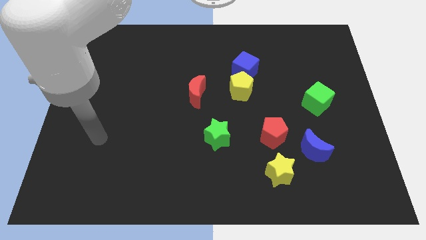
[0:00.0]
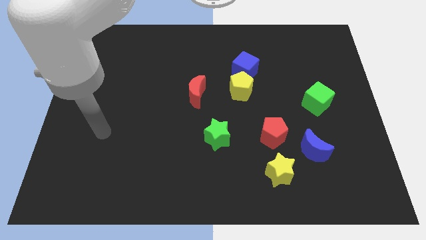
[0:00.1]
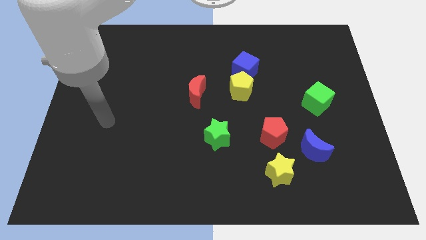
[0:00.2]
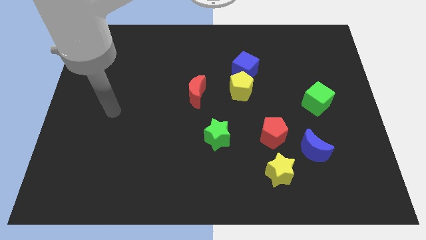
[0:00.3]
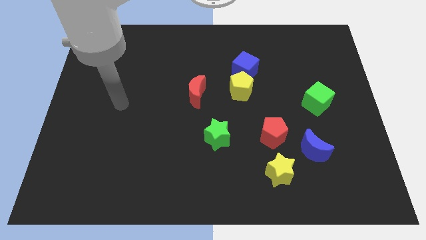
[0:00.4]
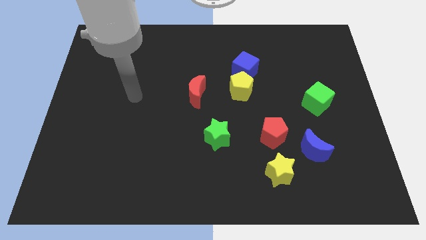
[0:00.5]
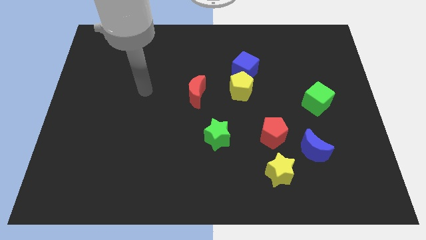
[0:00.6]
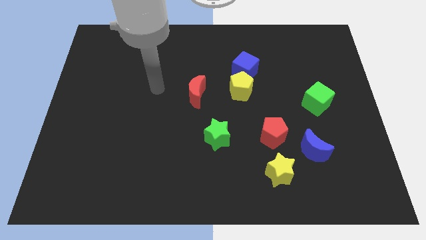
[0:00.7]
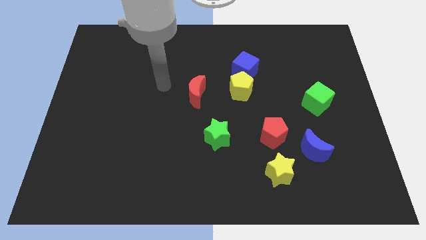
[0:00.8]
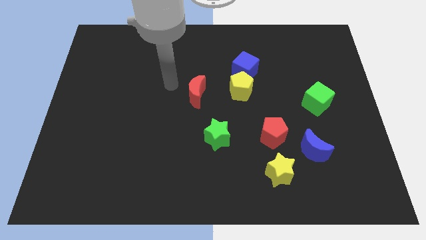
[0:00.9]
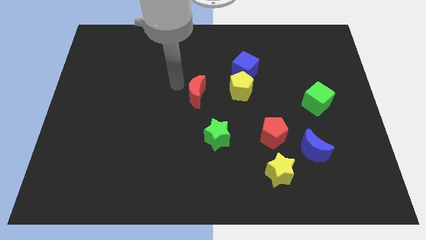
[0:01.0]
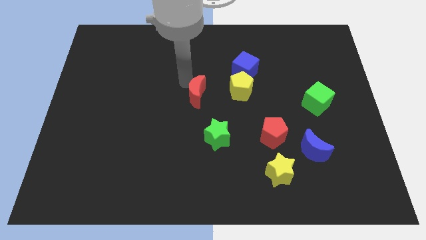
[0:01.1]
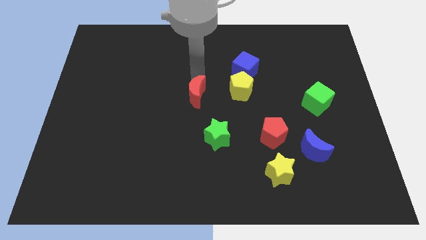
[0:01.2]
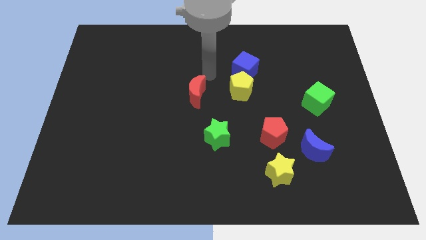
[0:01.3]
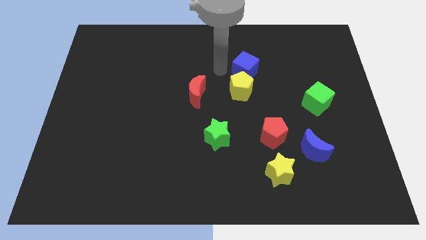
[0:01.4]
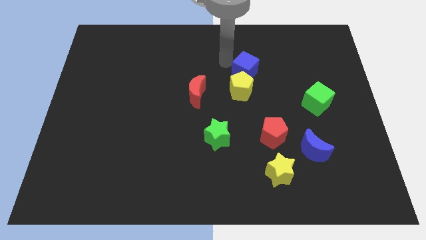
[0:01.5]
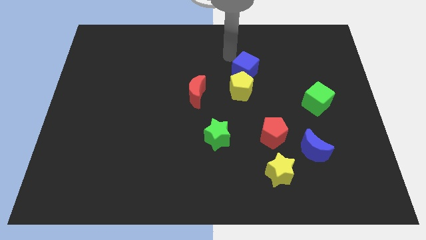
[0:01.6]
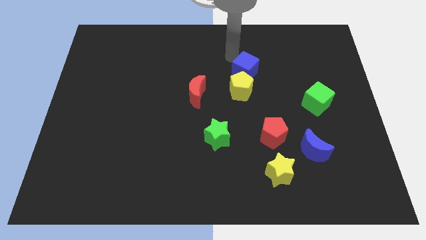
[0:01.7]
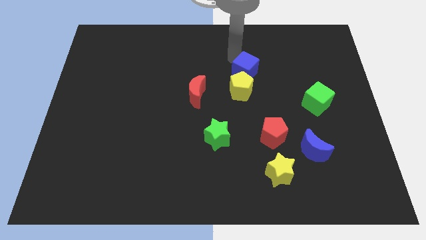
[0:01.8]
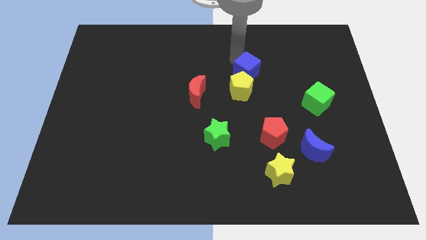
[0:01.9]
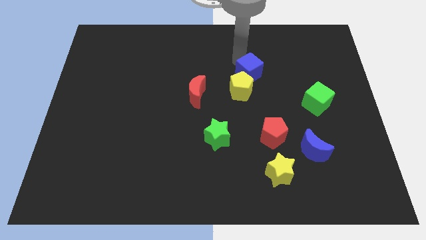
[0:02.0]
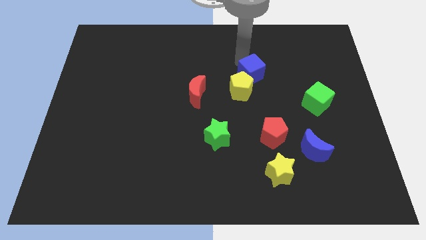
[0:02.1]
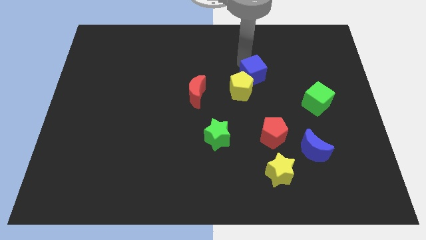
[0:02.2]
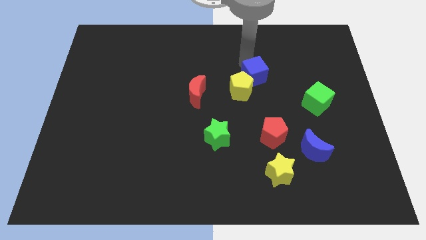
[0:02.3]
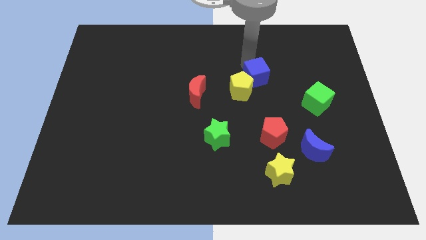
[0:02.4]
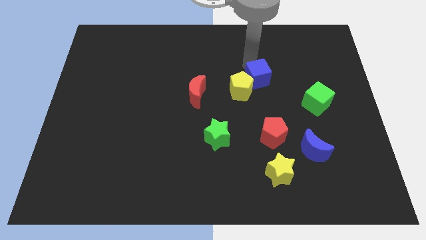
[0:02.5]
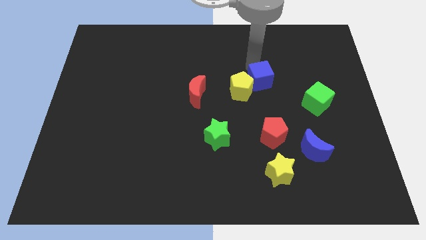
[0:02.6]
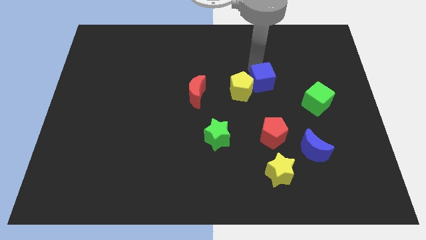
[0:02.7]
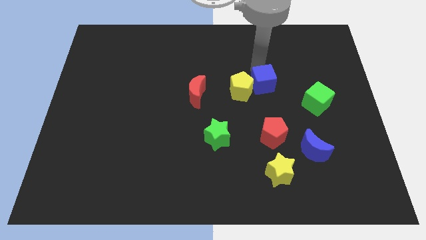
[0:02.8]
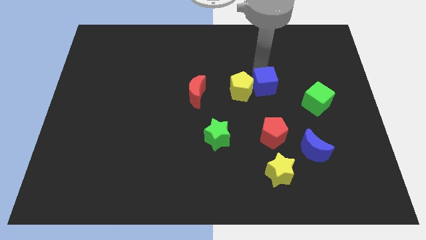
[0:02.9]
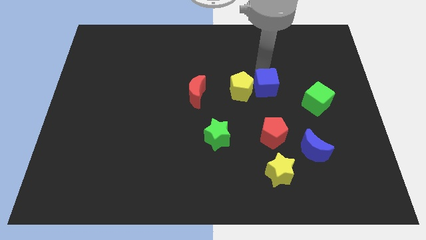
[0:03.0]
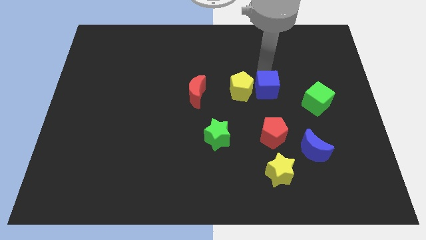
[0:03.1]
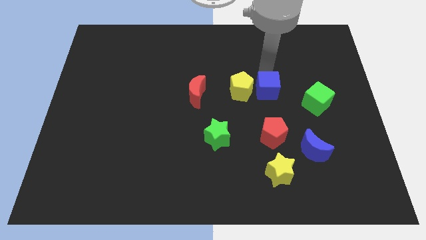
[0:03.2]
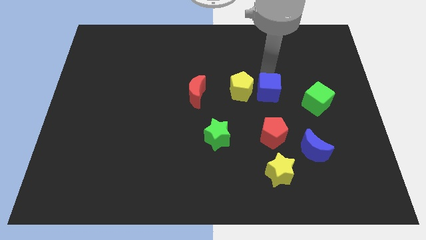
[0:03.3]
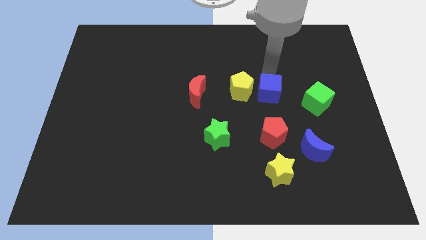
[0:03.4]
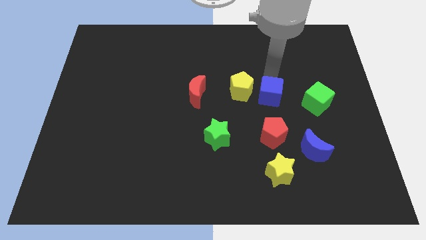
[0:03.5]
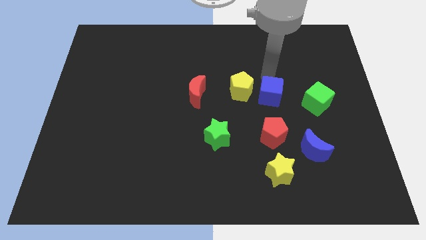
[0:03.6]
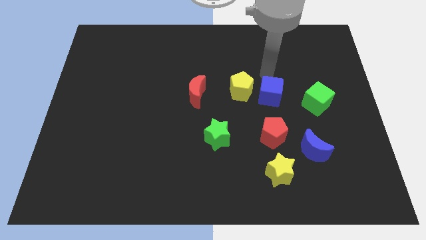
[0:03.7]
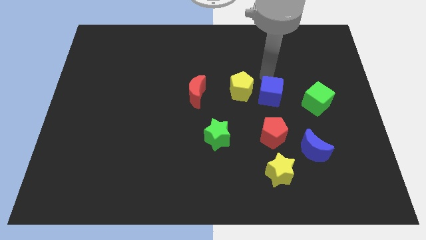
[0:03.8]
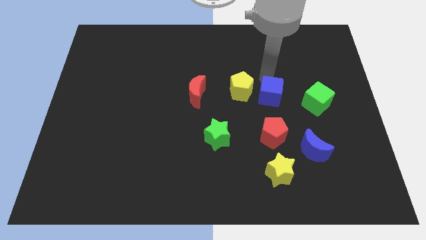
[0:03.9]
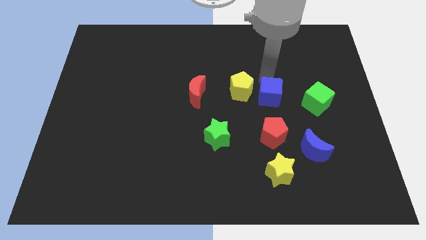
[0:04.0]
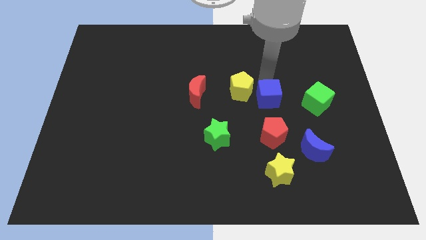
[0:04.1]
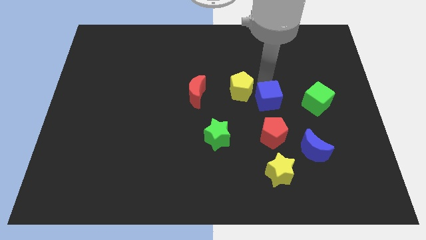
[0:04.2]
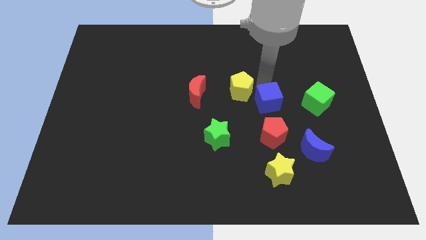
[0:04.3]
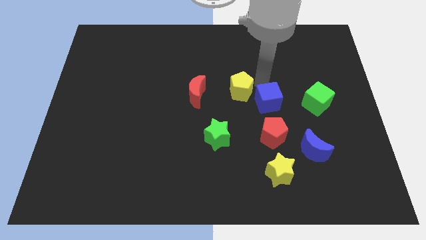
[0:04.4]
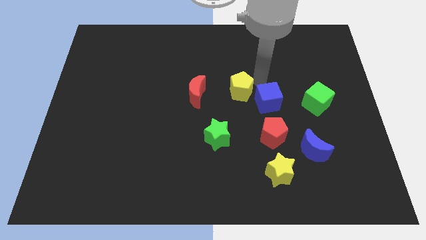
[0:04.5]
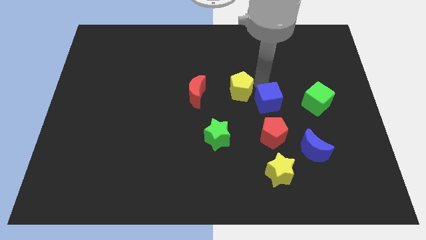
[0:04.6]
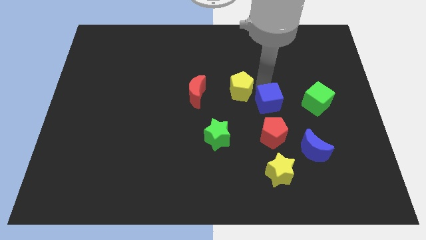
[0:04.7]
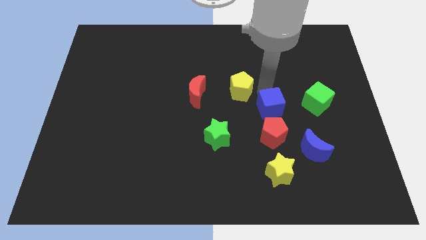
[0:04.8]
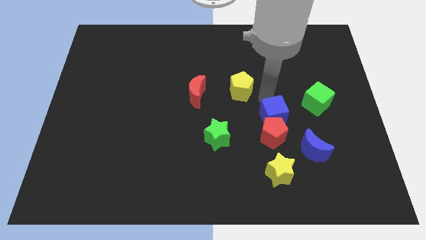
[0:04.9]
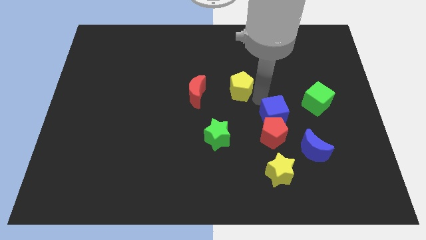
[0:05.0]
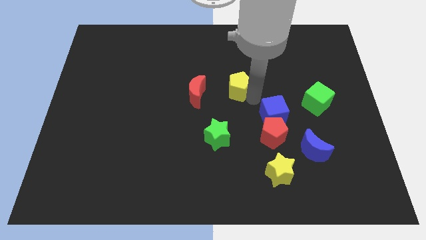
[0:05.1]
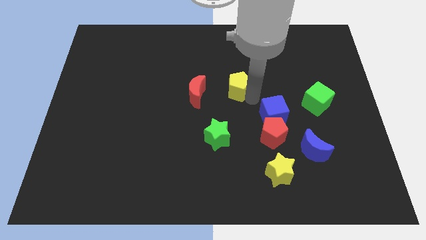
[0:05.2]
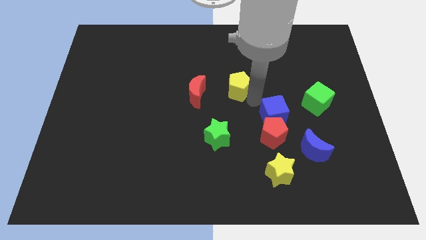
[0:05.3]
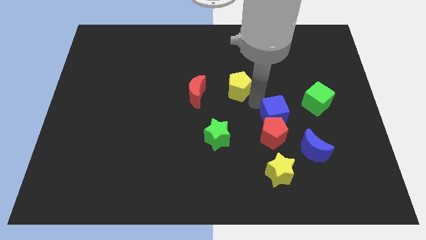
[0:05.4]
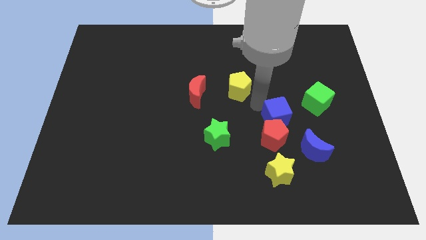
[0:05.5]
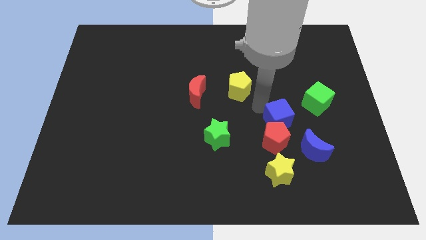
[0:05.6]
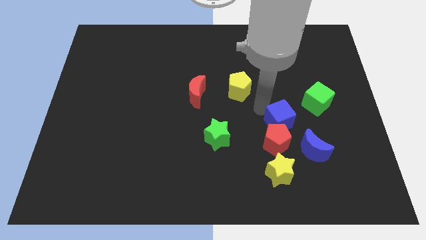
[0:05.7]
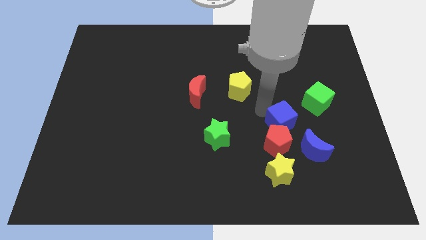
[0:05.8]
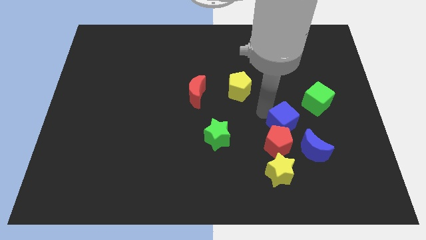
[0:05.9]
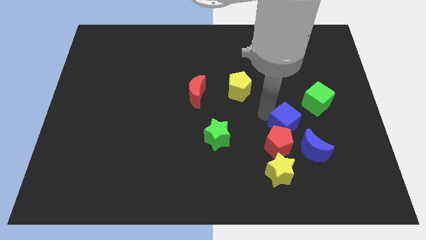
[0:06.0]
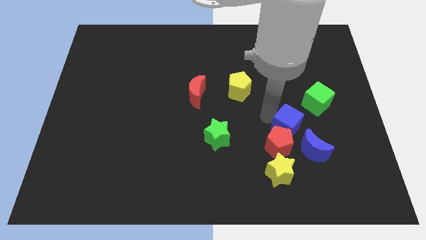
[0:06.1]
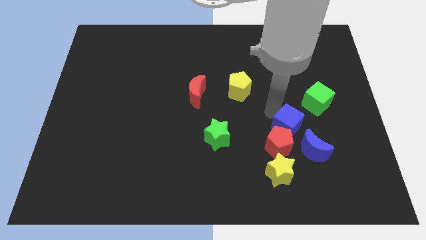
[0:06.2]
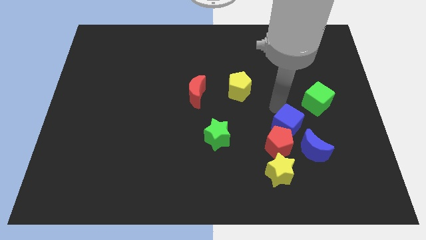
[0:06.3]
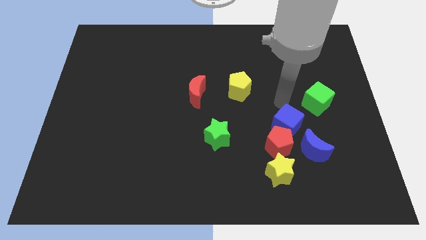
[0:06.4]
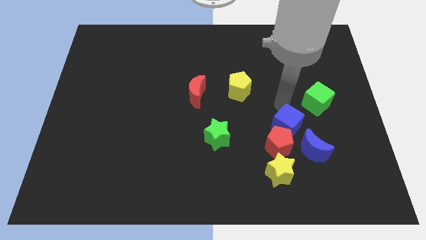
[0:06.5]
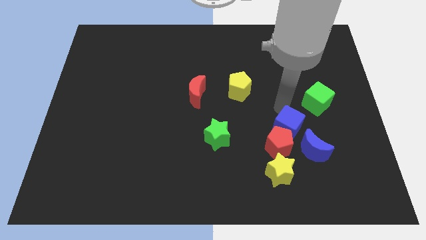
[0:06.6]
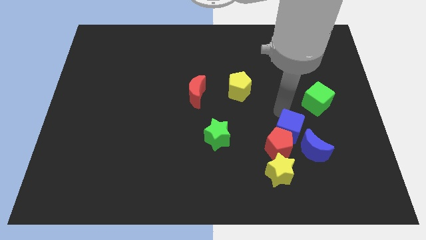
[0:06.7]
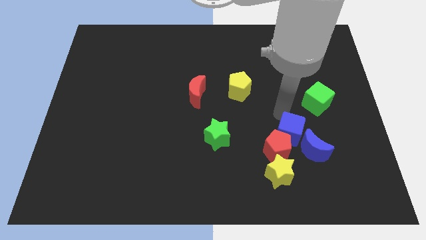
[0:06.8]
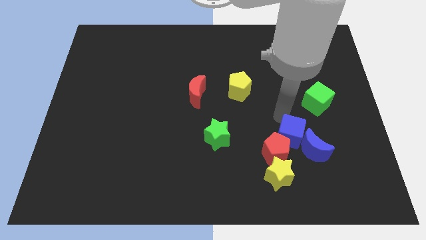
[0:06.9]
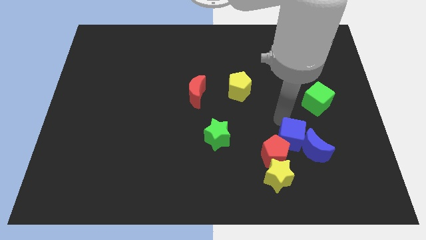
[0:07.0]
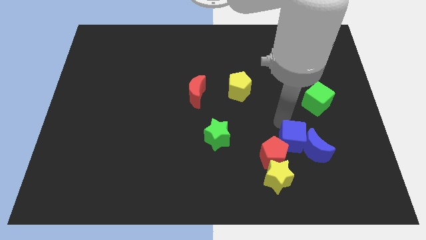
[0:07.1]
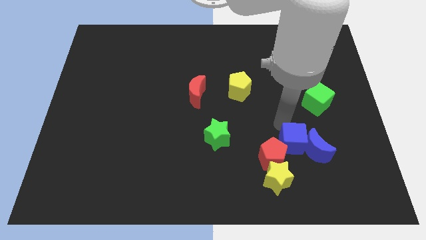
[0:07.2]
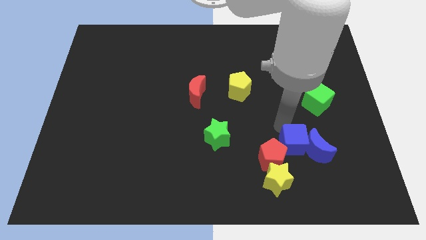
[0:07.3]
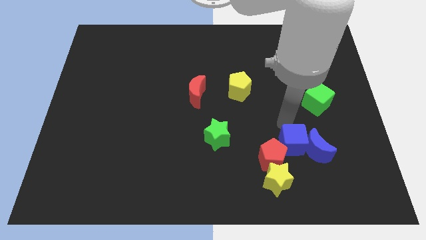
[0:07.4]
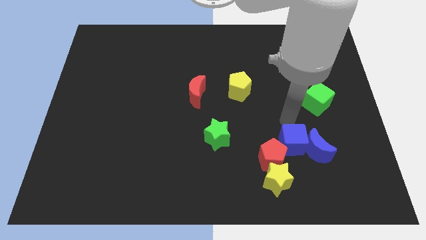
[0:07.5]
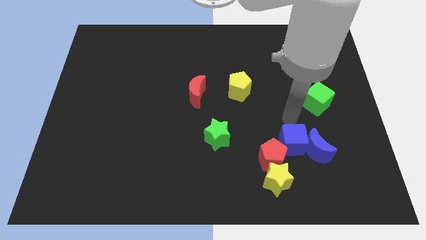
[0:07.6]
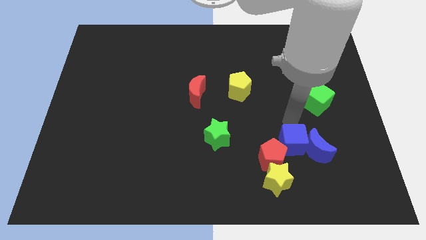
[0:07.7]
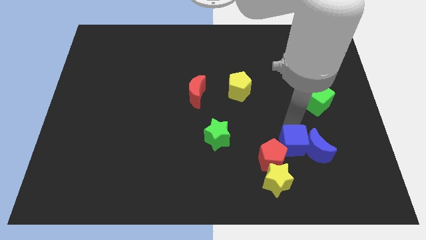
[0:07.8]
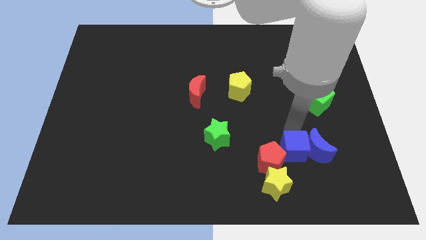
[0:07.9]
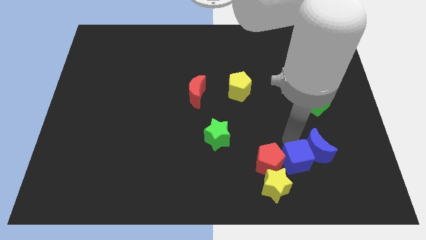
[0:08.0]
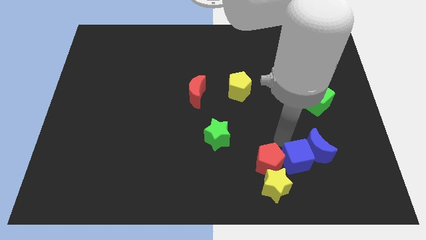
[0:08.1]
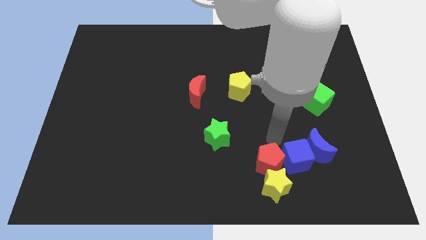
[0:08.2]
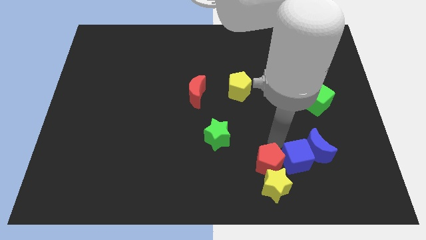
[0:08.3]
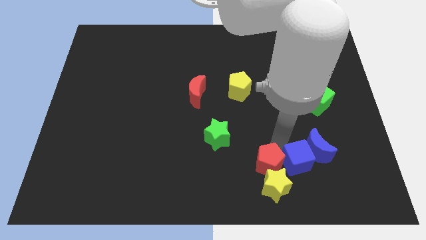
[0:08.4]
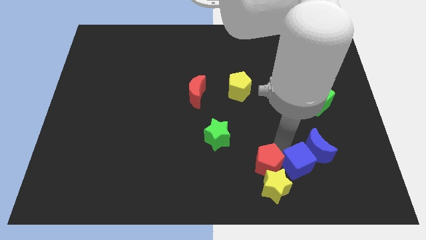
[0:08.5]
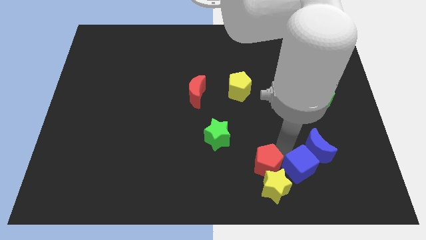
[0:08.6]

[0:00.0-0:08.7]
move the blue cube to the right side of the yellow star
